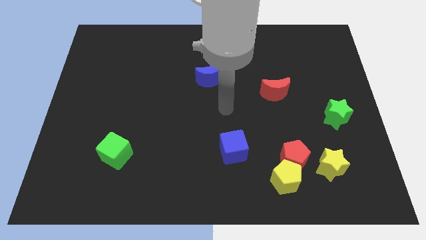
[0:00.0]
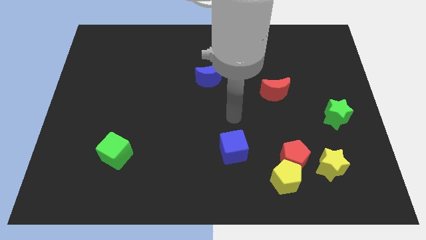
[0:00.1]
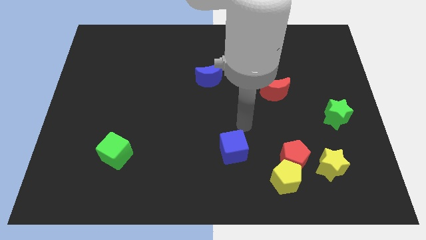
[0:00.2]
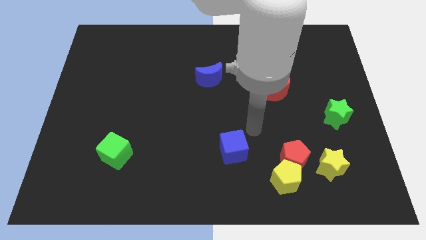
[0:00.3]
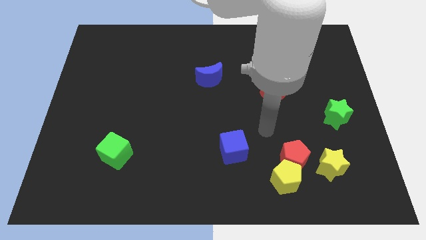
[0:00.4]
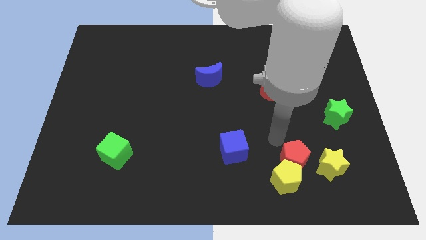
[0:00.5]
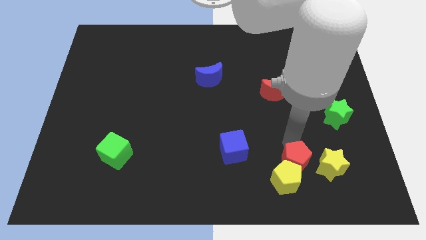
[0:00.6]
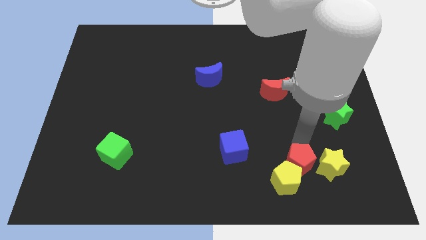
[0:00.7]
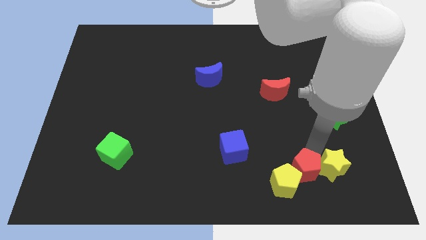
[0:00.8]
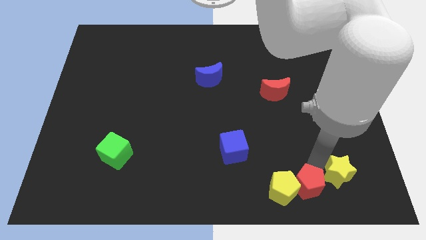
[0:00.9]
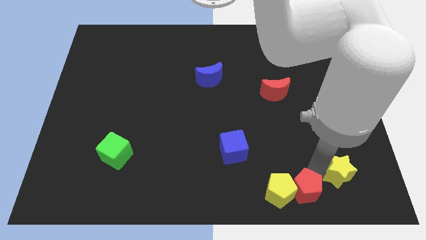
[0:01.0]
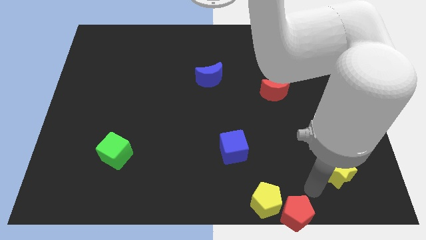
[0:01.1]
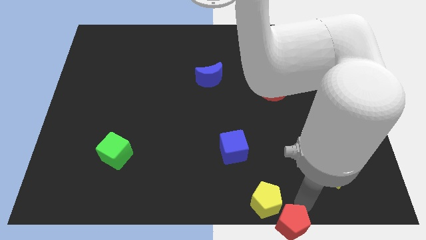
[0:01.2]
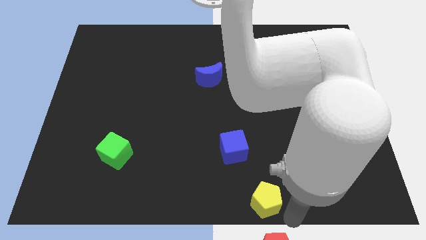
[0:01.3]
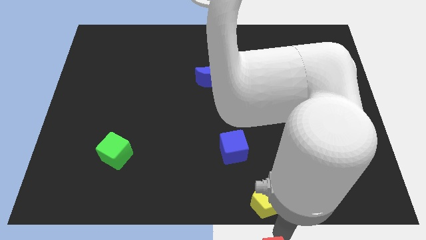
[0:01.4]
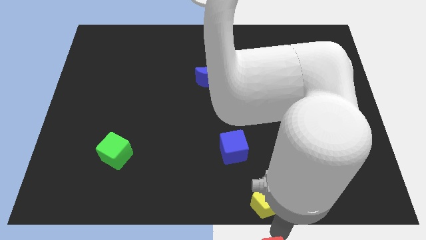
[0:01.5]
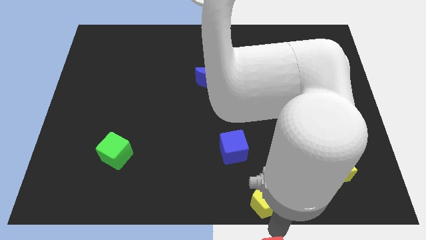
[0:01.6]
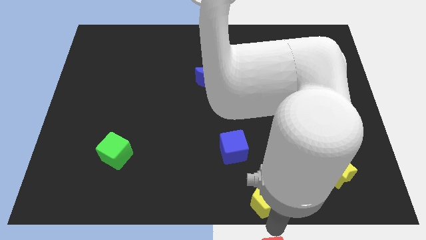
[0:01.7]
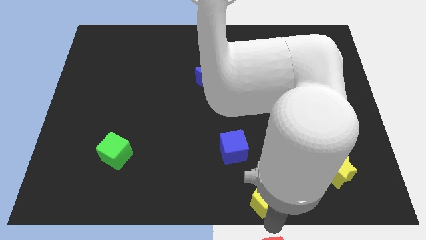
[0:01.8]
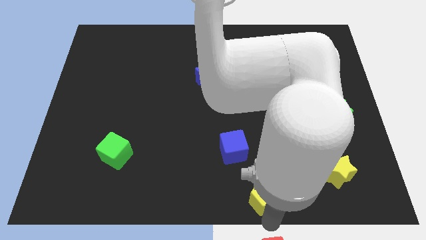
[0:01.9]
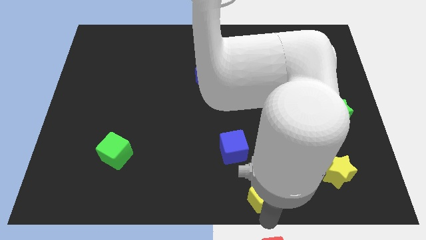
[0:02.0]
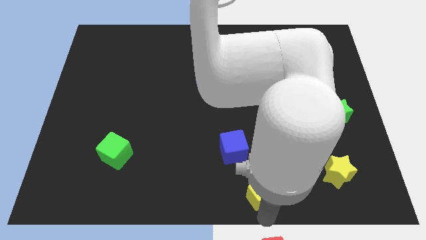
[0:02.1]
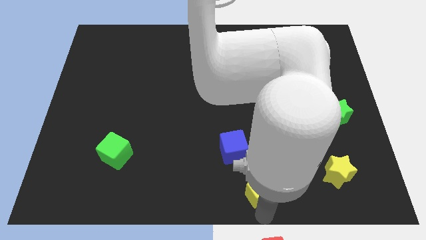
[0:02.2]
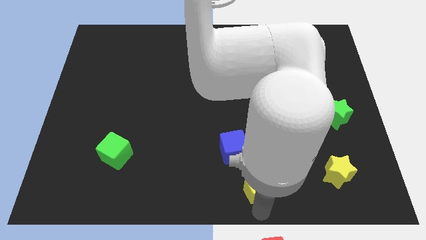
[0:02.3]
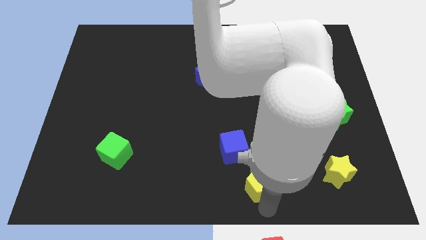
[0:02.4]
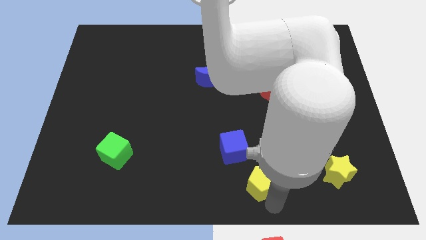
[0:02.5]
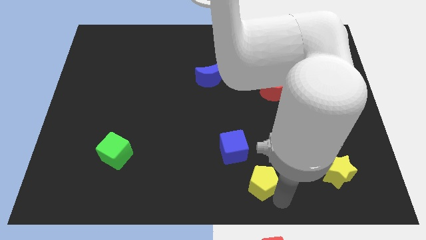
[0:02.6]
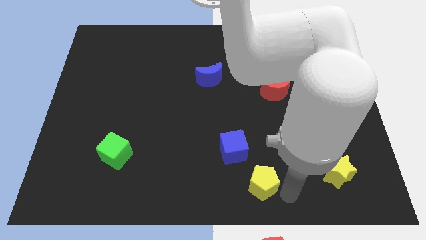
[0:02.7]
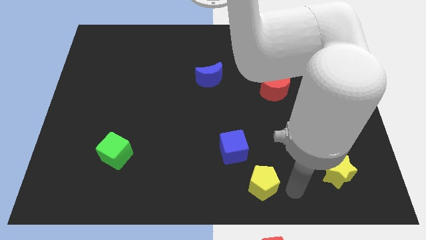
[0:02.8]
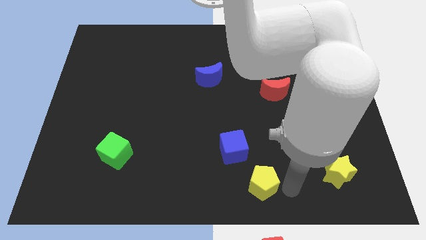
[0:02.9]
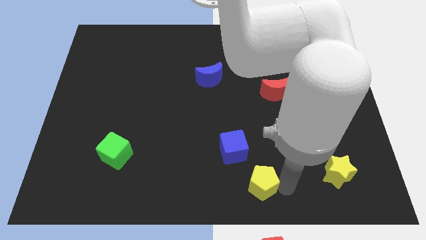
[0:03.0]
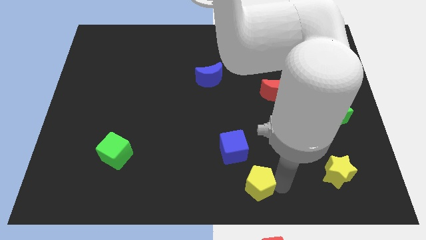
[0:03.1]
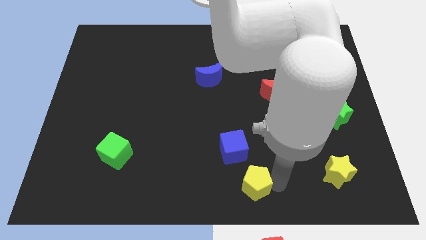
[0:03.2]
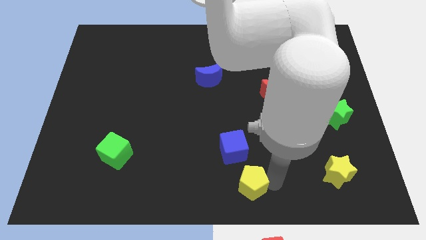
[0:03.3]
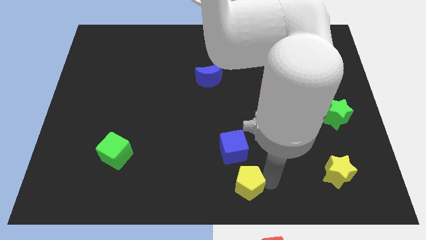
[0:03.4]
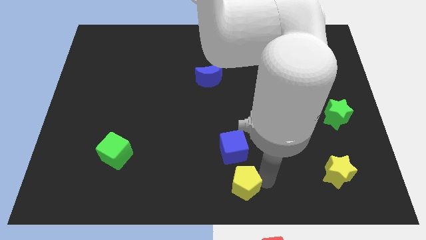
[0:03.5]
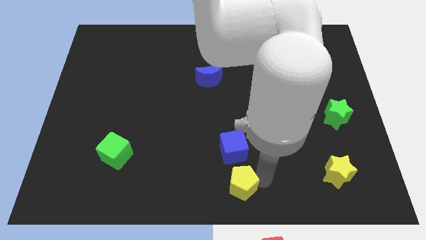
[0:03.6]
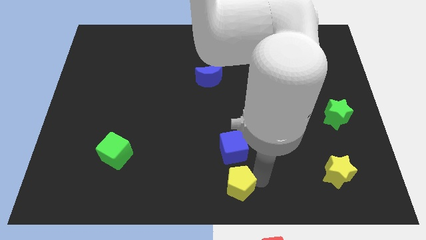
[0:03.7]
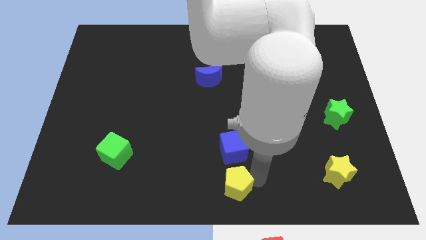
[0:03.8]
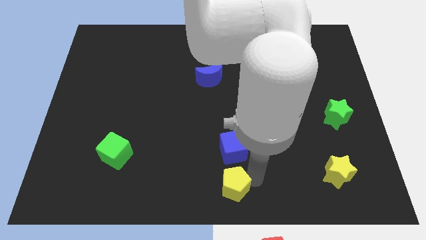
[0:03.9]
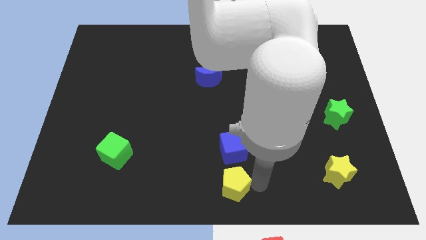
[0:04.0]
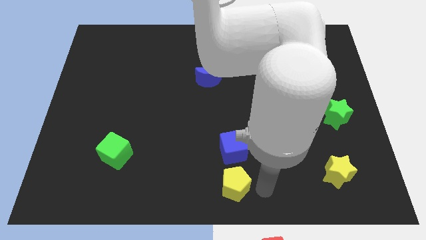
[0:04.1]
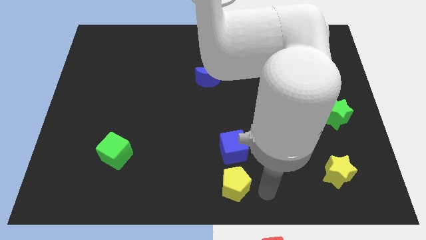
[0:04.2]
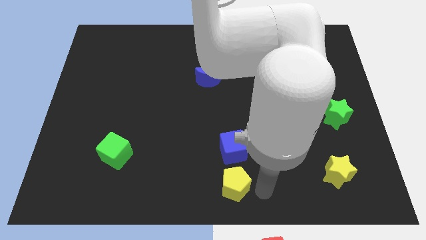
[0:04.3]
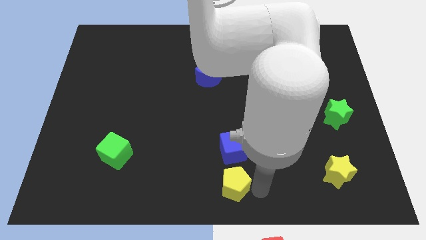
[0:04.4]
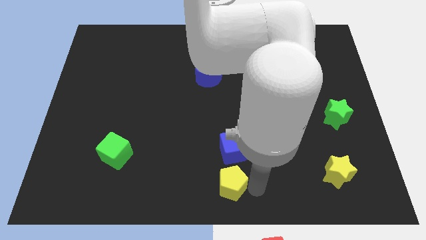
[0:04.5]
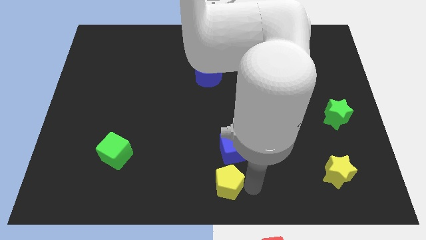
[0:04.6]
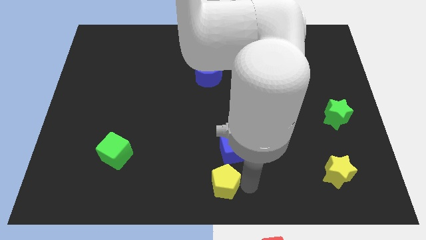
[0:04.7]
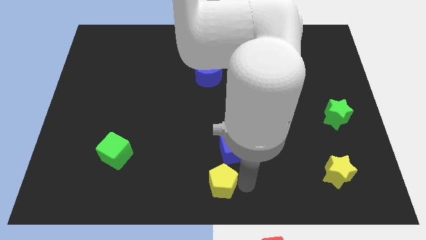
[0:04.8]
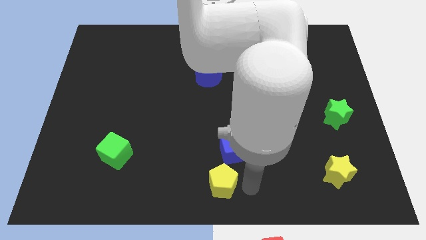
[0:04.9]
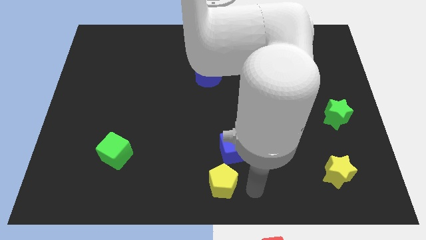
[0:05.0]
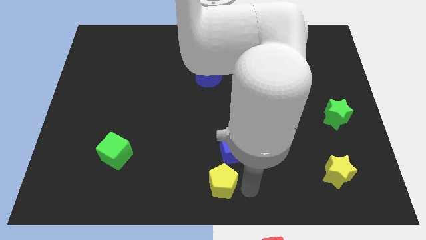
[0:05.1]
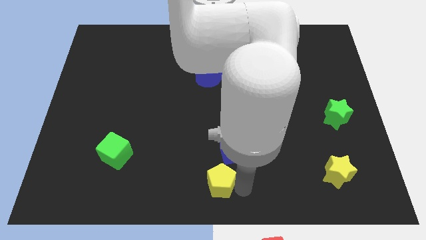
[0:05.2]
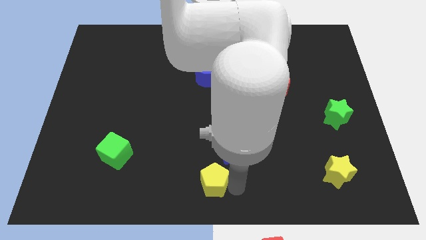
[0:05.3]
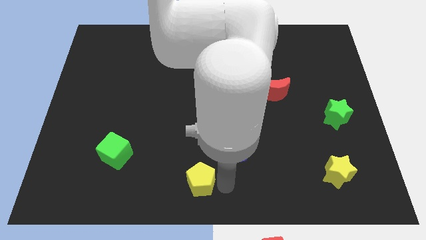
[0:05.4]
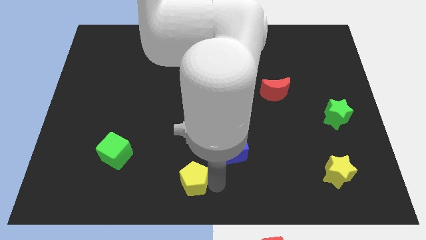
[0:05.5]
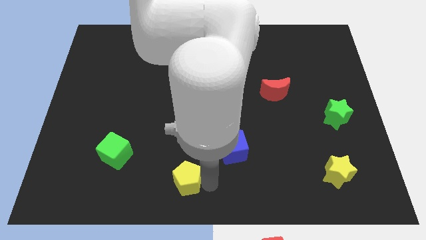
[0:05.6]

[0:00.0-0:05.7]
slide the yellow pentagon left

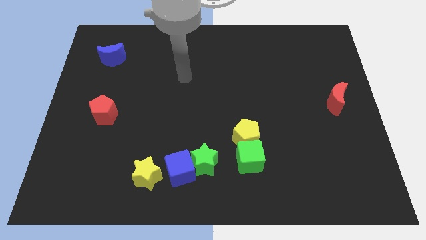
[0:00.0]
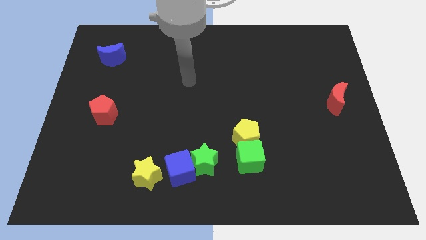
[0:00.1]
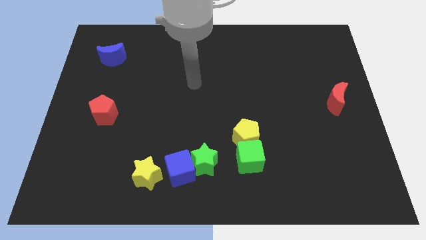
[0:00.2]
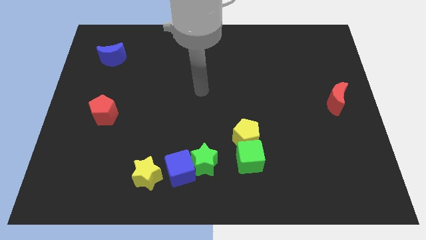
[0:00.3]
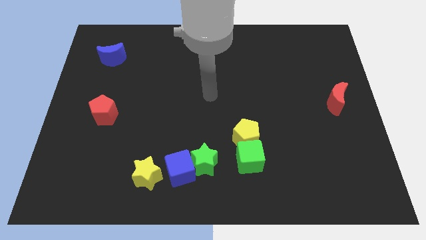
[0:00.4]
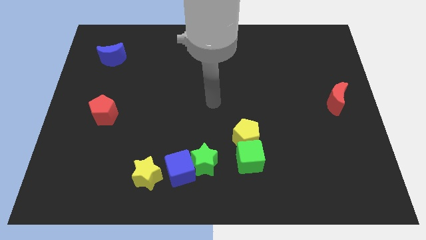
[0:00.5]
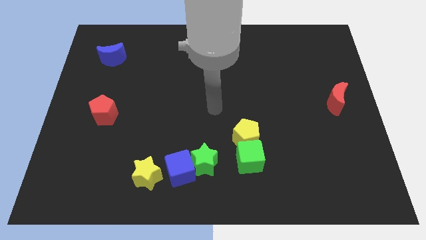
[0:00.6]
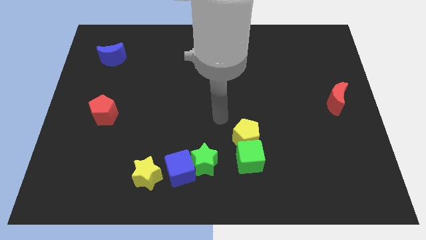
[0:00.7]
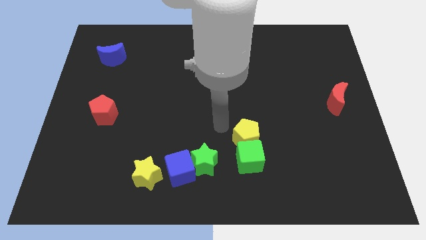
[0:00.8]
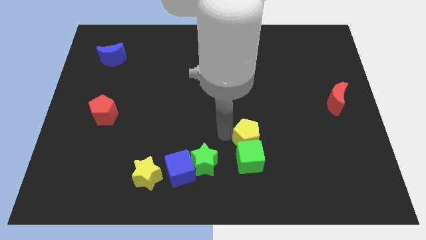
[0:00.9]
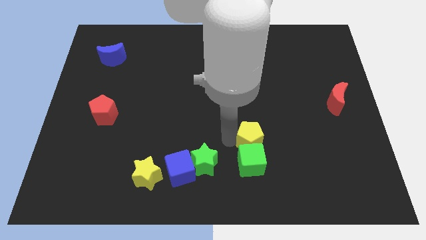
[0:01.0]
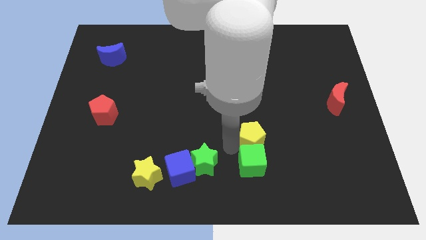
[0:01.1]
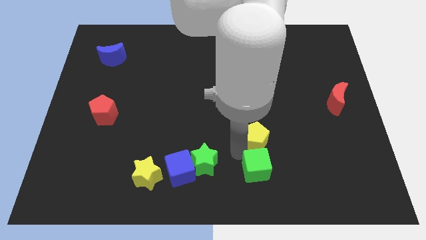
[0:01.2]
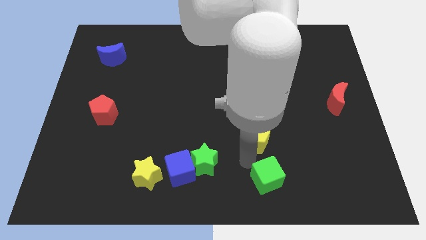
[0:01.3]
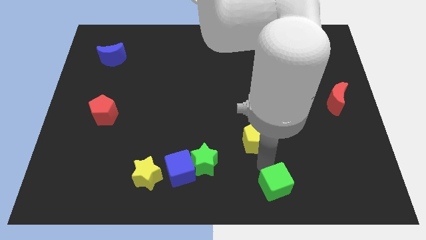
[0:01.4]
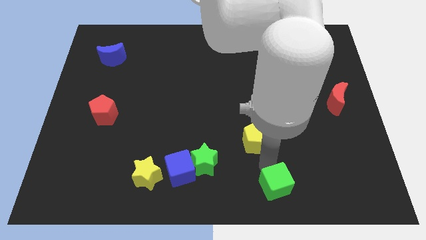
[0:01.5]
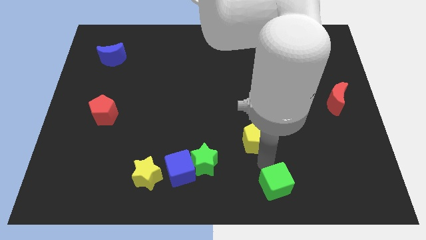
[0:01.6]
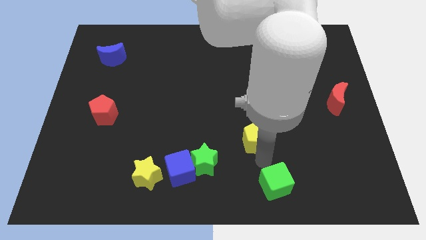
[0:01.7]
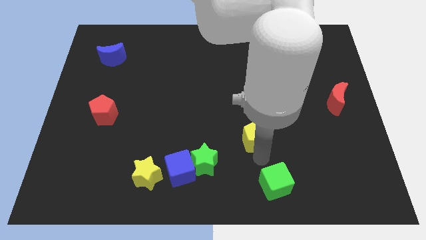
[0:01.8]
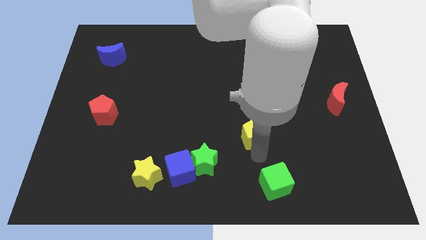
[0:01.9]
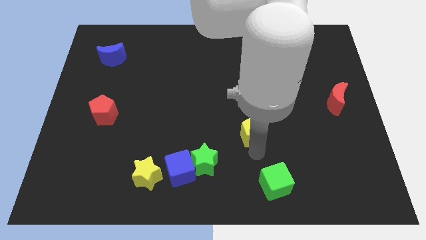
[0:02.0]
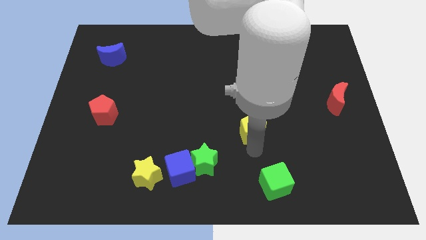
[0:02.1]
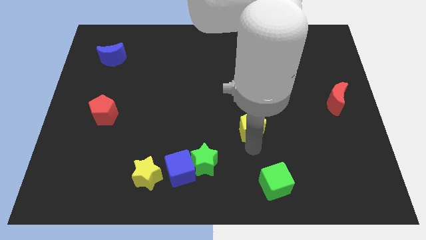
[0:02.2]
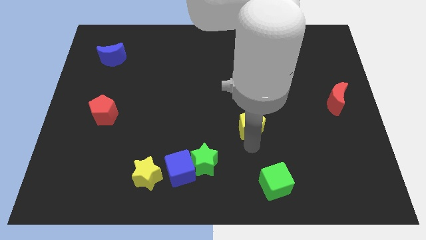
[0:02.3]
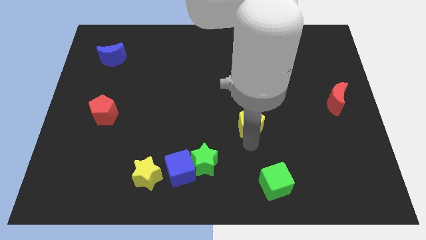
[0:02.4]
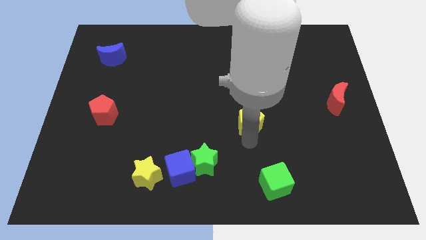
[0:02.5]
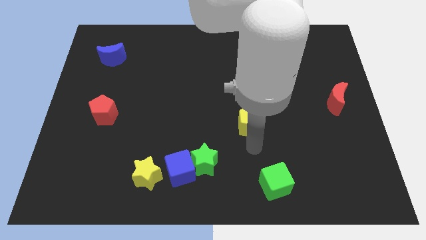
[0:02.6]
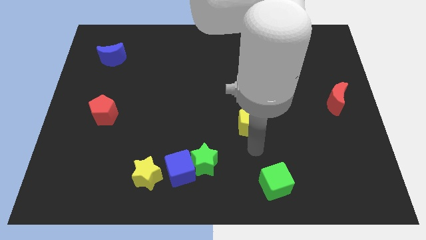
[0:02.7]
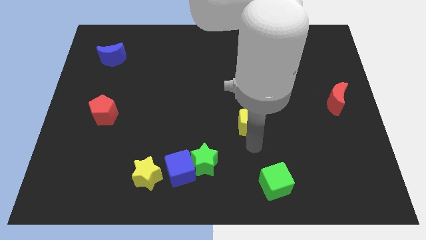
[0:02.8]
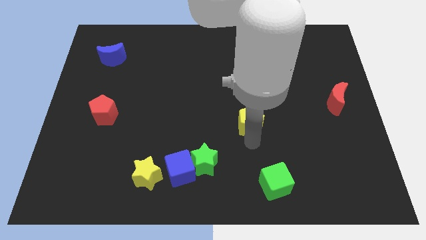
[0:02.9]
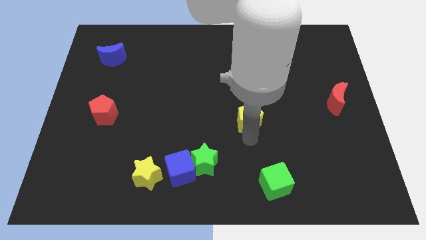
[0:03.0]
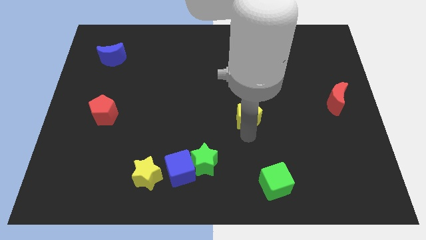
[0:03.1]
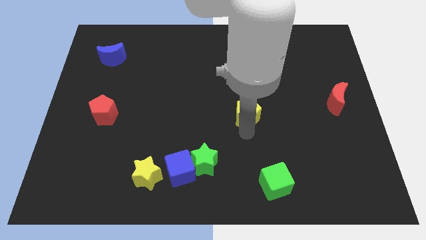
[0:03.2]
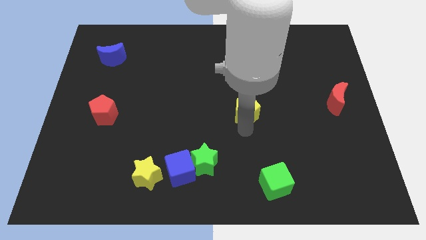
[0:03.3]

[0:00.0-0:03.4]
slightly slide the yellow pentagon upwards
